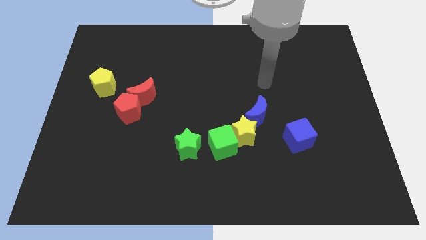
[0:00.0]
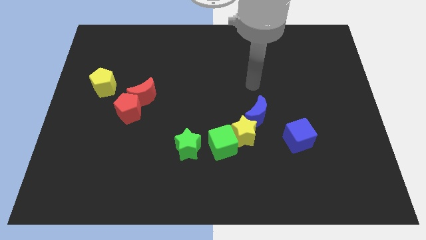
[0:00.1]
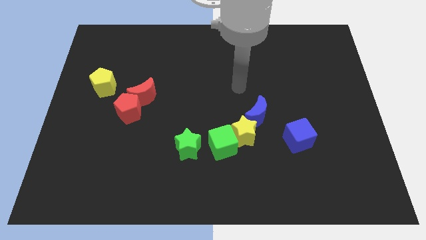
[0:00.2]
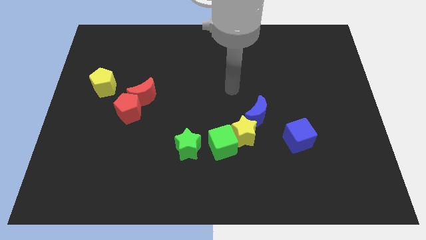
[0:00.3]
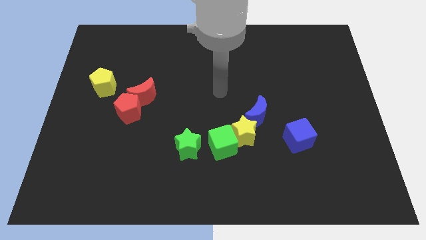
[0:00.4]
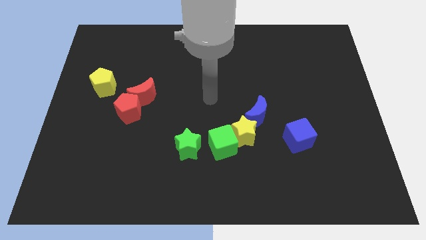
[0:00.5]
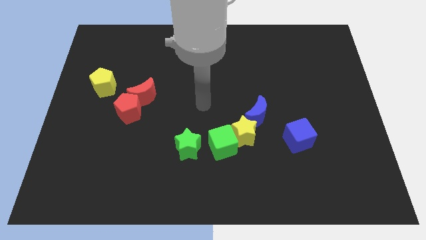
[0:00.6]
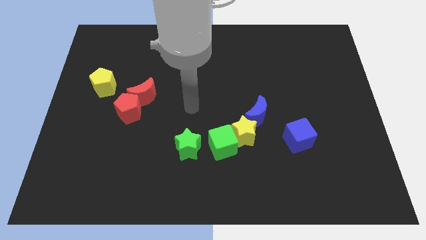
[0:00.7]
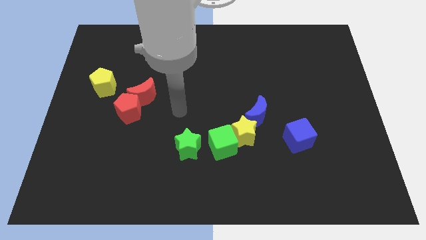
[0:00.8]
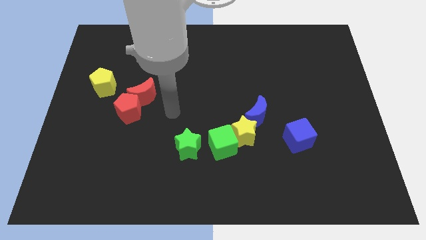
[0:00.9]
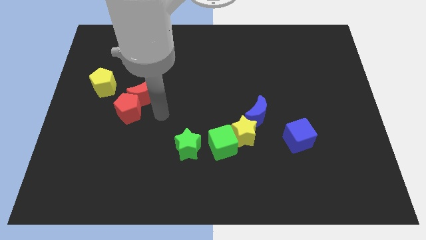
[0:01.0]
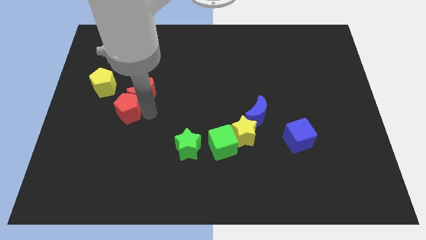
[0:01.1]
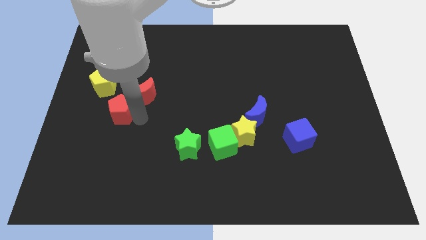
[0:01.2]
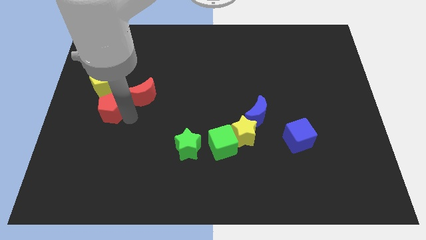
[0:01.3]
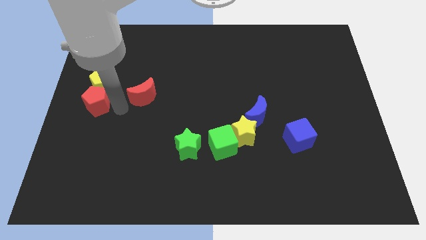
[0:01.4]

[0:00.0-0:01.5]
move the red moon away from the red pentagon

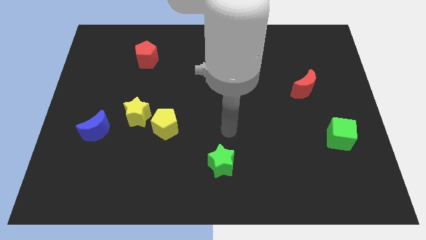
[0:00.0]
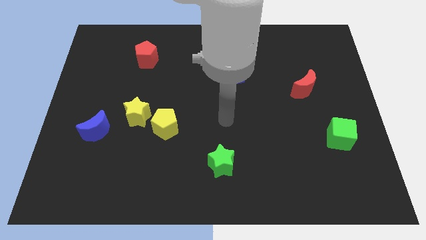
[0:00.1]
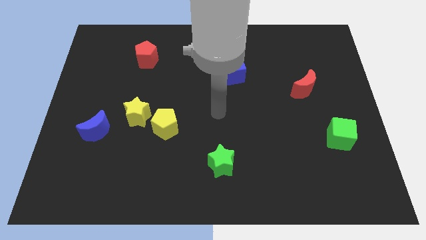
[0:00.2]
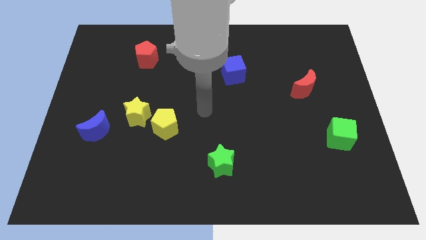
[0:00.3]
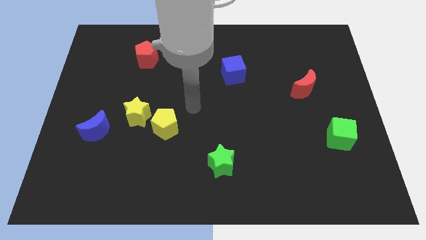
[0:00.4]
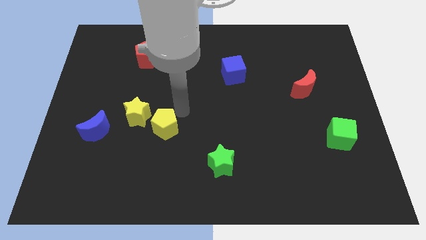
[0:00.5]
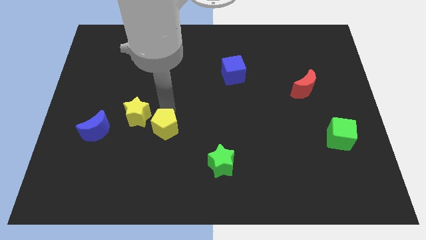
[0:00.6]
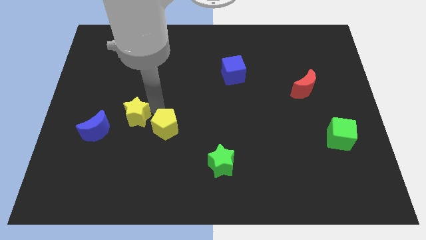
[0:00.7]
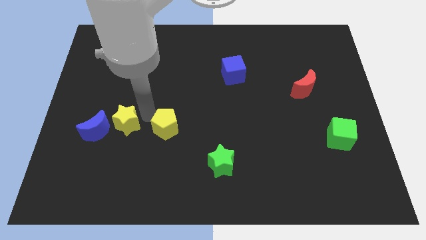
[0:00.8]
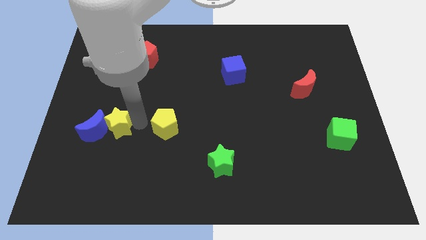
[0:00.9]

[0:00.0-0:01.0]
pull the yellow pentagon apart from the yellow star

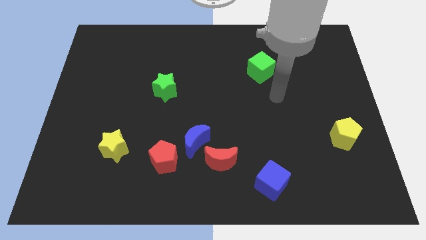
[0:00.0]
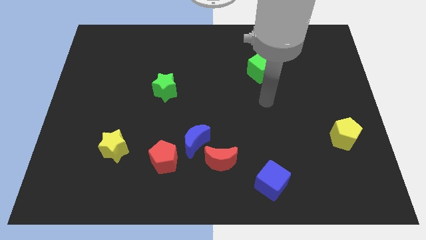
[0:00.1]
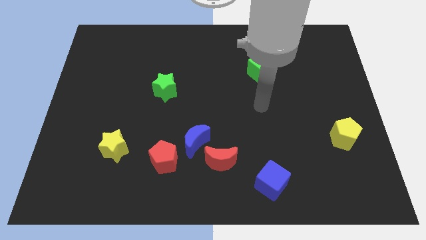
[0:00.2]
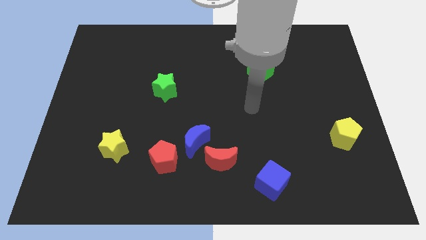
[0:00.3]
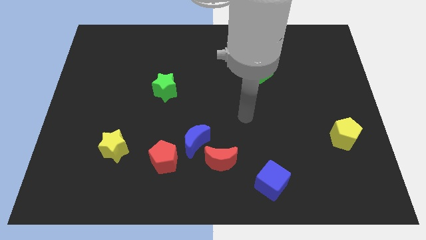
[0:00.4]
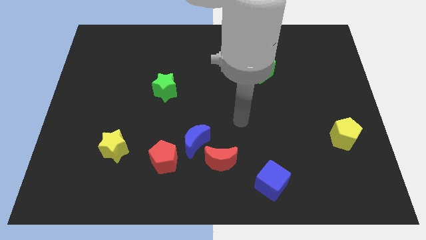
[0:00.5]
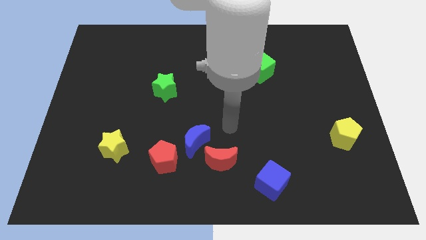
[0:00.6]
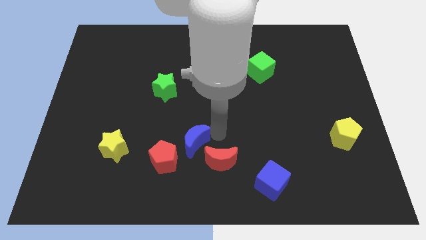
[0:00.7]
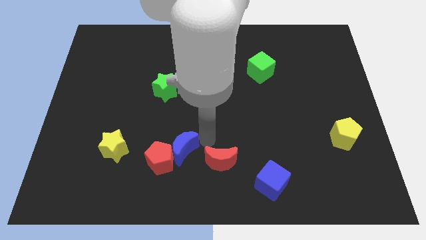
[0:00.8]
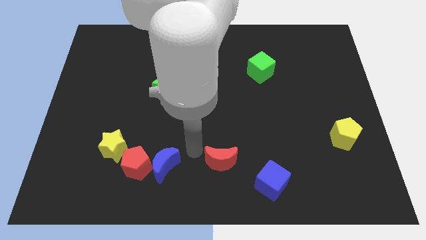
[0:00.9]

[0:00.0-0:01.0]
pull the red moon apart from the blue moon

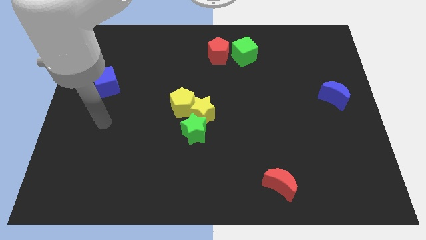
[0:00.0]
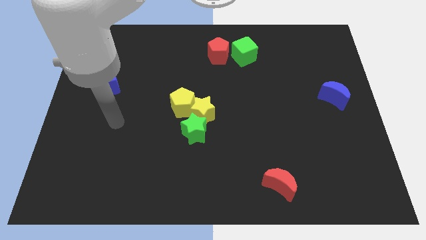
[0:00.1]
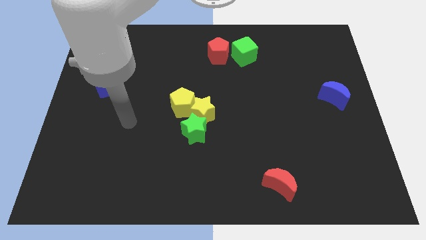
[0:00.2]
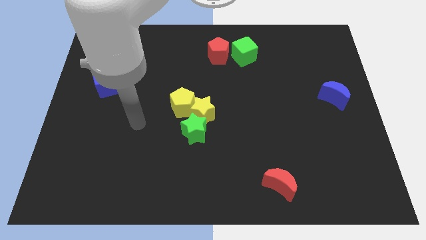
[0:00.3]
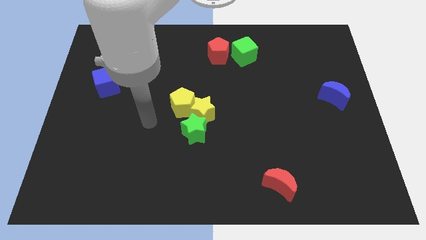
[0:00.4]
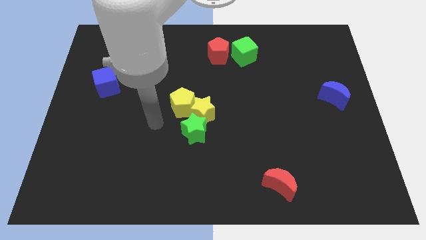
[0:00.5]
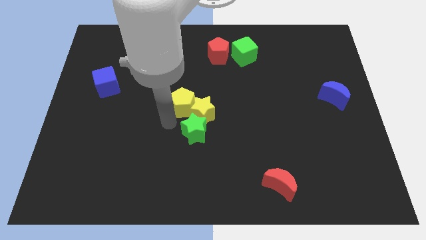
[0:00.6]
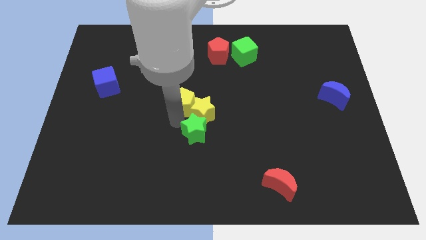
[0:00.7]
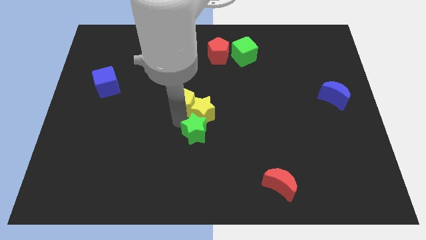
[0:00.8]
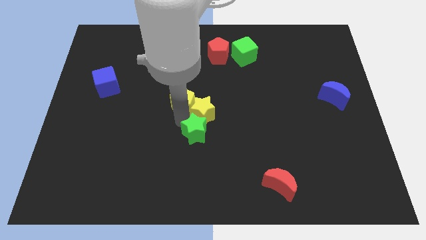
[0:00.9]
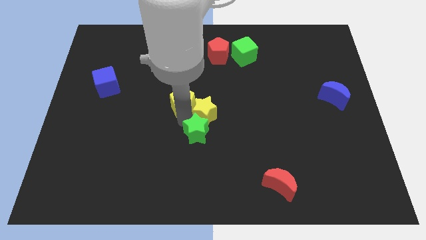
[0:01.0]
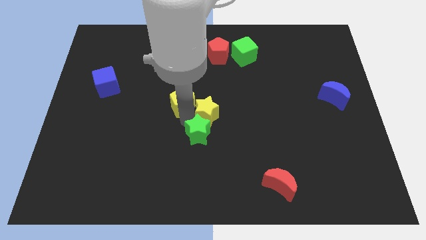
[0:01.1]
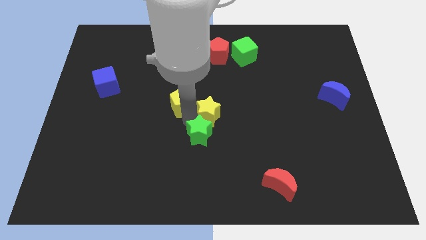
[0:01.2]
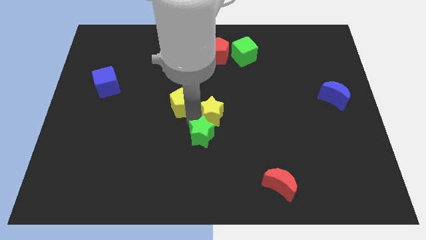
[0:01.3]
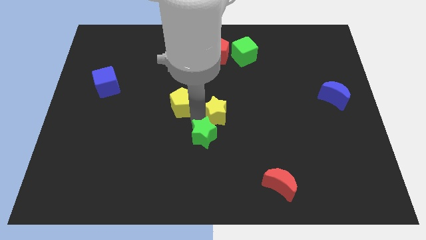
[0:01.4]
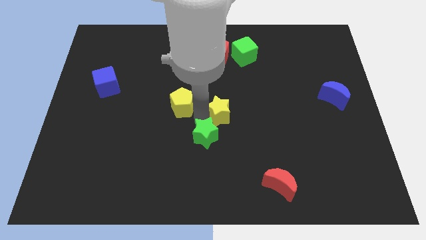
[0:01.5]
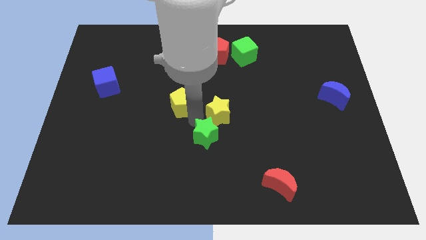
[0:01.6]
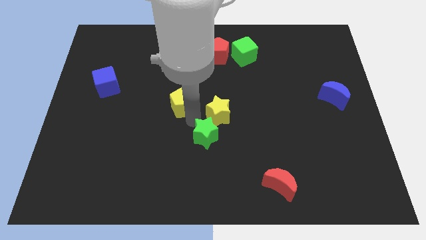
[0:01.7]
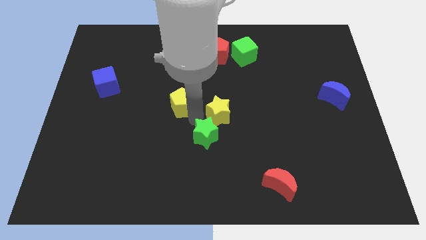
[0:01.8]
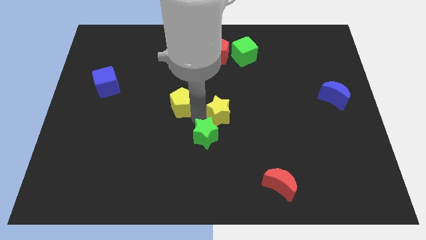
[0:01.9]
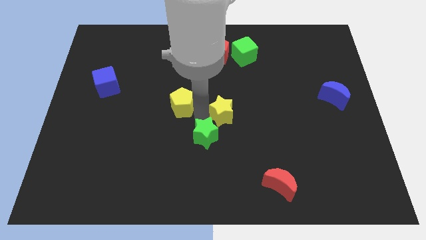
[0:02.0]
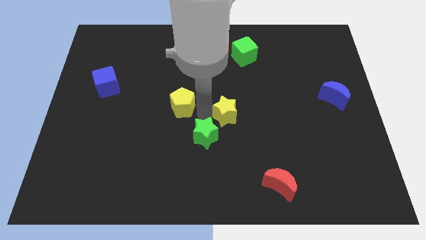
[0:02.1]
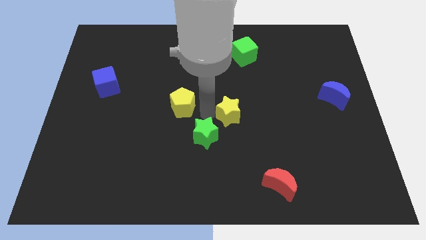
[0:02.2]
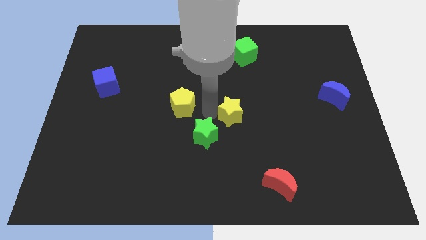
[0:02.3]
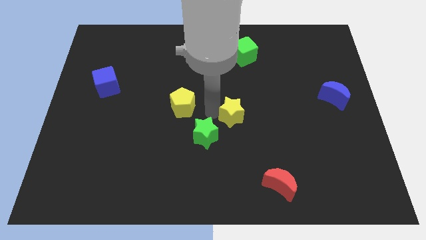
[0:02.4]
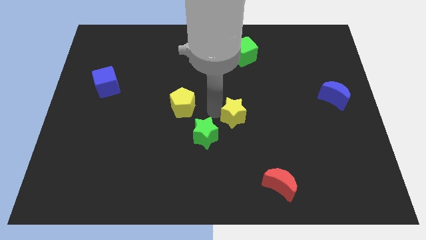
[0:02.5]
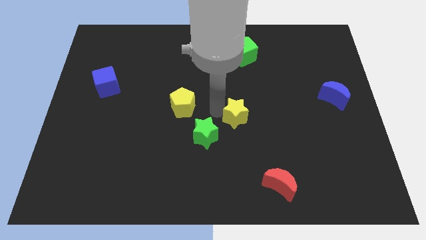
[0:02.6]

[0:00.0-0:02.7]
separate the yellow star from the yellow pentagon and green star

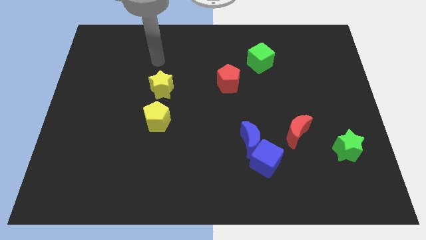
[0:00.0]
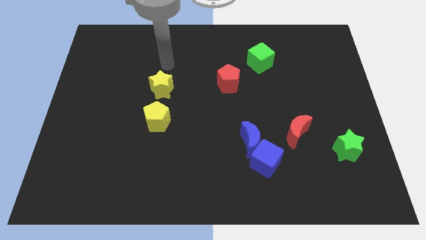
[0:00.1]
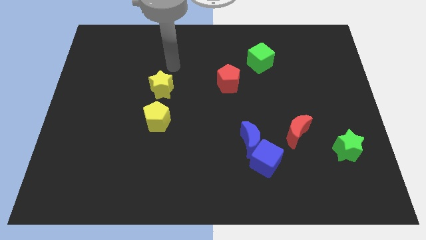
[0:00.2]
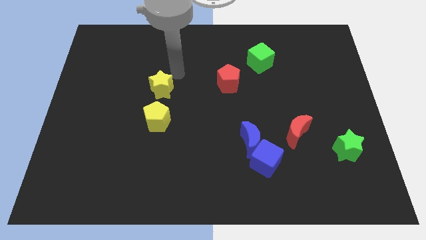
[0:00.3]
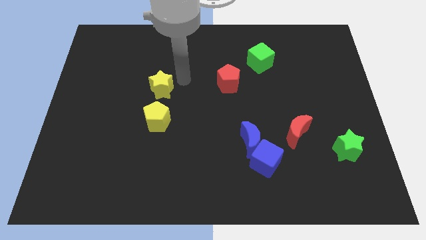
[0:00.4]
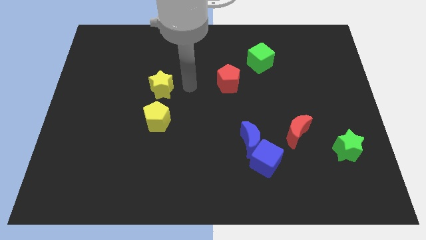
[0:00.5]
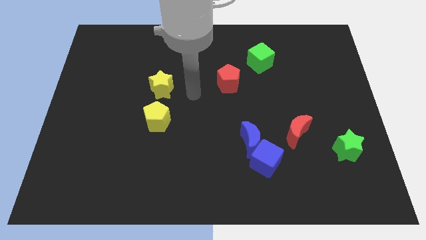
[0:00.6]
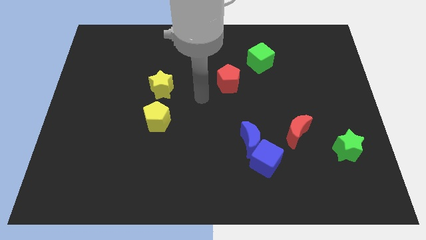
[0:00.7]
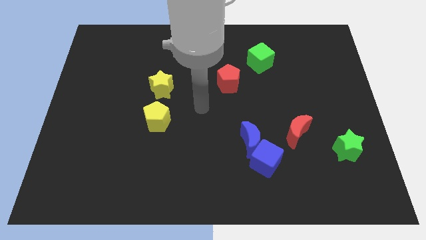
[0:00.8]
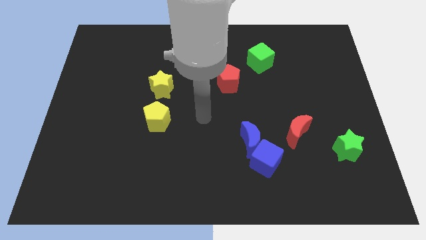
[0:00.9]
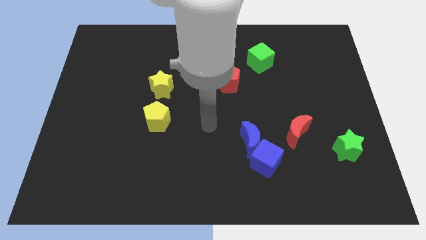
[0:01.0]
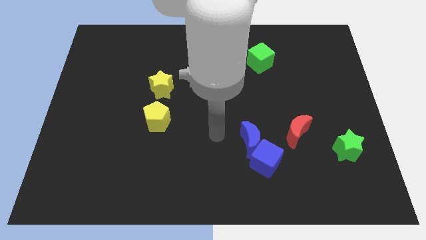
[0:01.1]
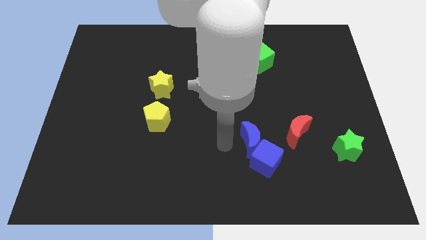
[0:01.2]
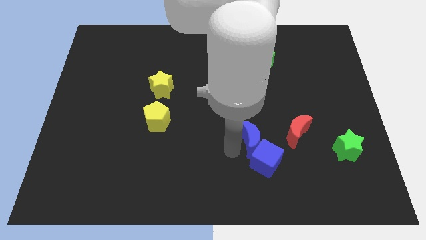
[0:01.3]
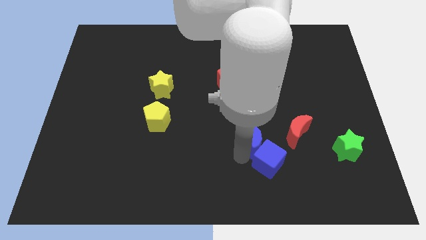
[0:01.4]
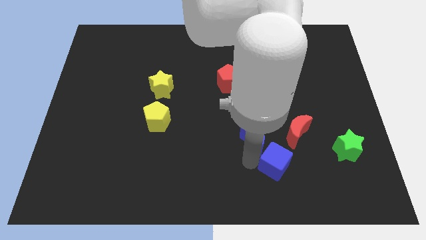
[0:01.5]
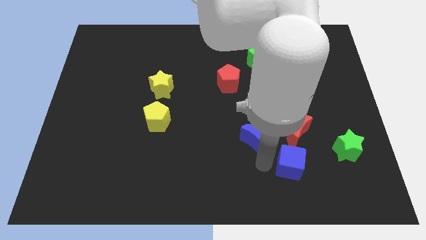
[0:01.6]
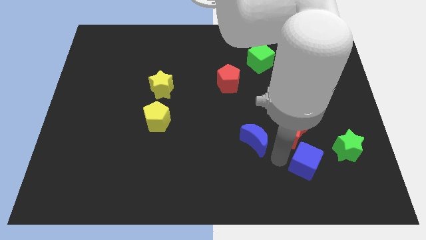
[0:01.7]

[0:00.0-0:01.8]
separate the blue moon from the blue cube

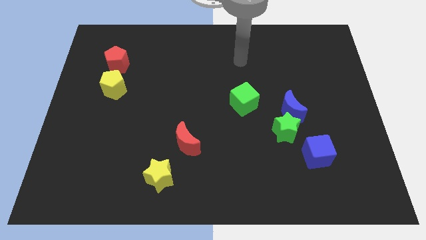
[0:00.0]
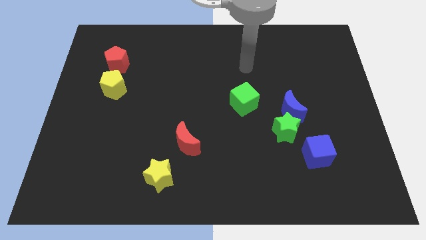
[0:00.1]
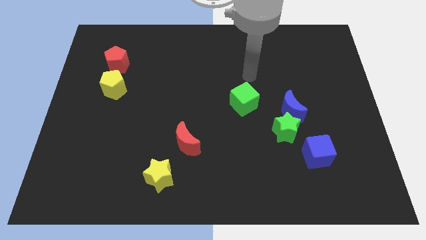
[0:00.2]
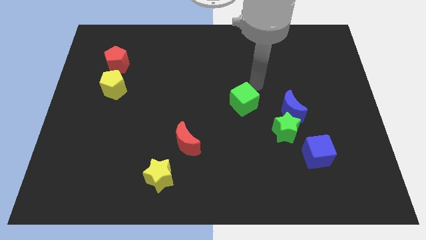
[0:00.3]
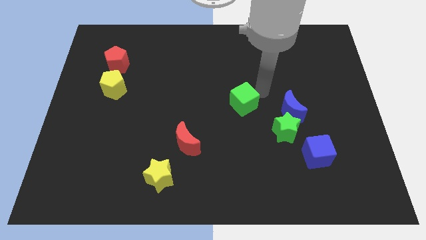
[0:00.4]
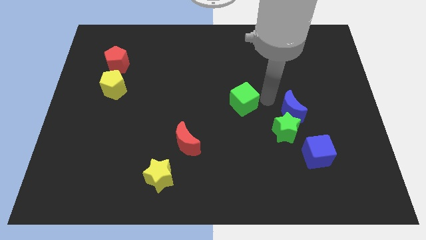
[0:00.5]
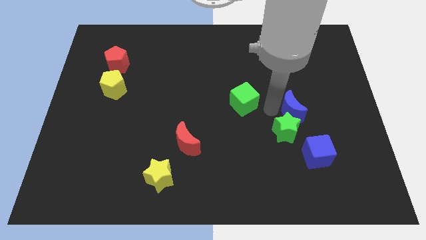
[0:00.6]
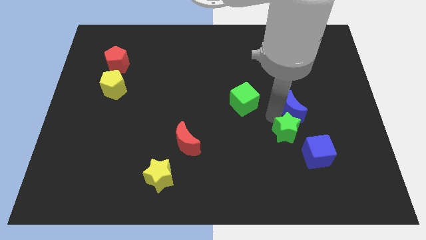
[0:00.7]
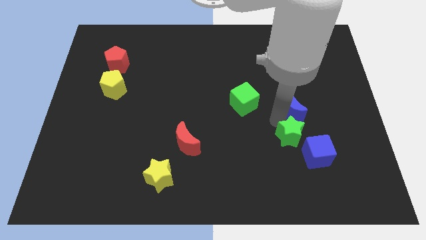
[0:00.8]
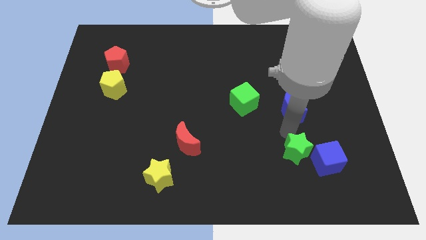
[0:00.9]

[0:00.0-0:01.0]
move the blue moon away from the green star

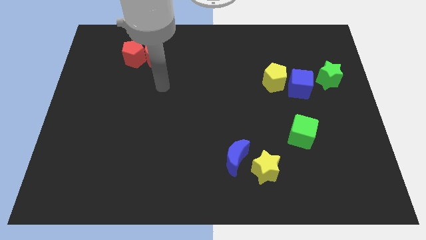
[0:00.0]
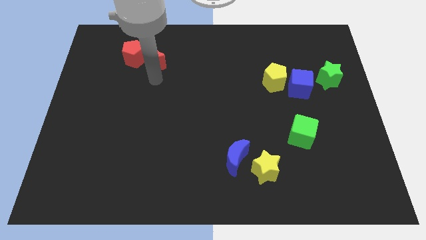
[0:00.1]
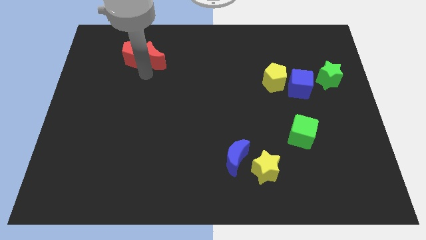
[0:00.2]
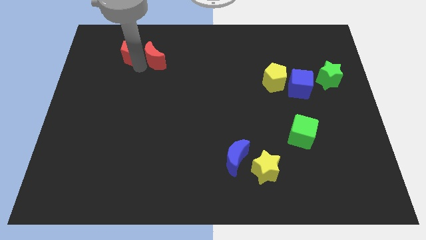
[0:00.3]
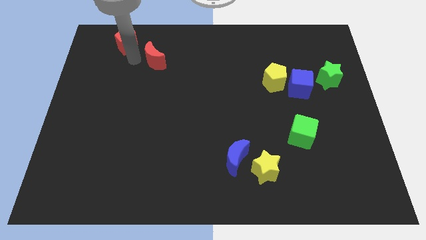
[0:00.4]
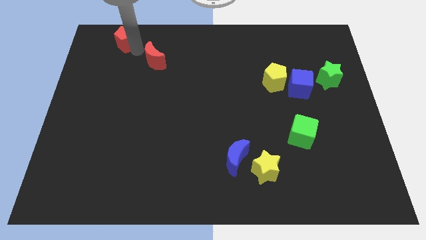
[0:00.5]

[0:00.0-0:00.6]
separate the red moon from the red pentagon
